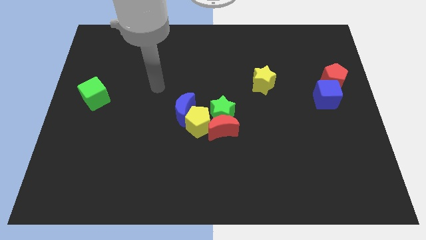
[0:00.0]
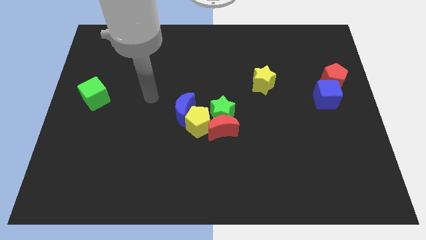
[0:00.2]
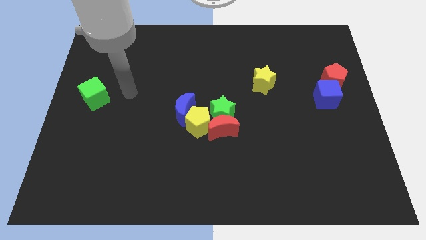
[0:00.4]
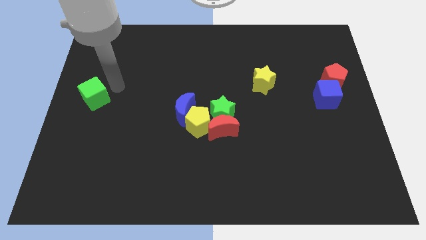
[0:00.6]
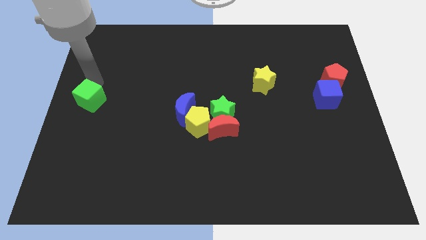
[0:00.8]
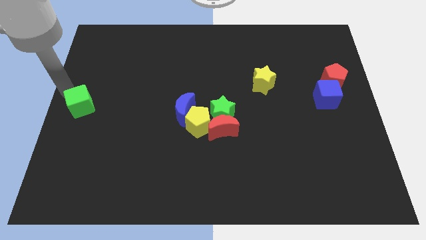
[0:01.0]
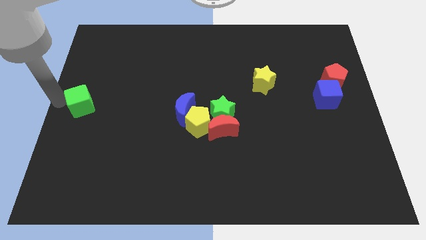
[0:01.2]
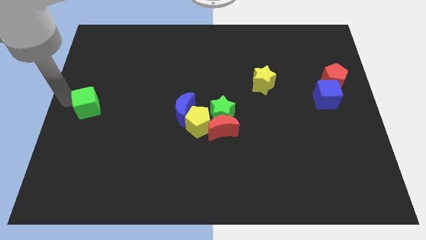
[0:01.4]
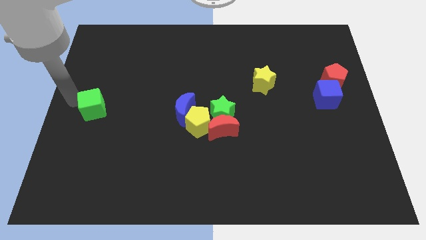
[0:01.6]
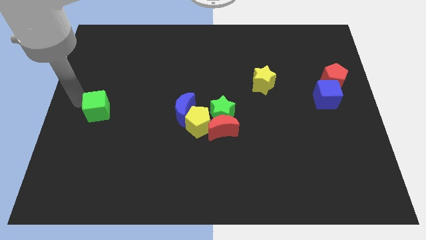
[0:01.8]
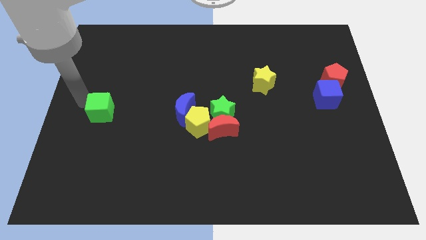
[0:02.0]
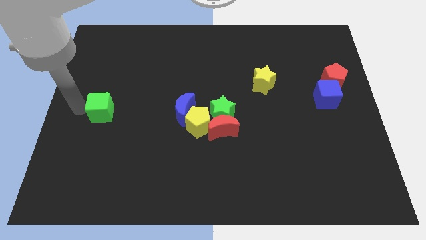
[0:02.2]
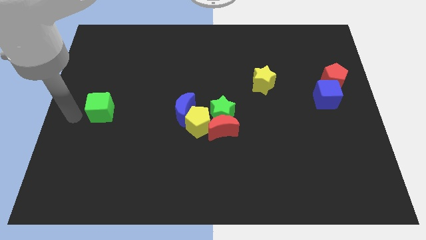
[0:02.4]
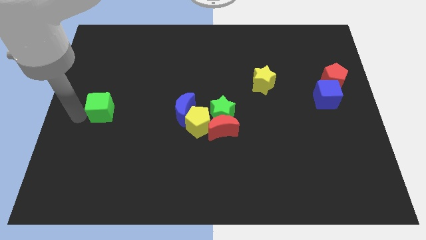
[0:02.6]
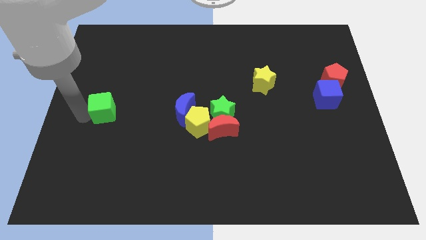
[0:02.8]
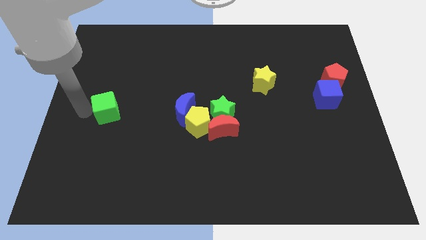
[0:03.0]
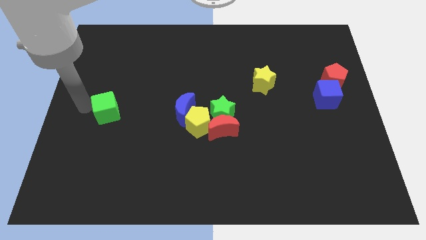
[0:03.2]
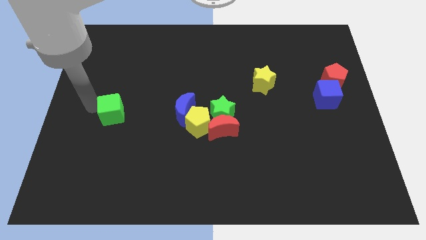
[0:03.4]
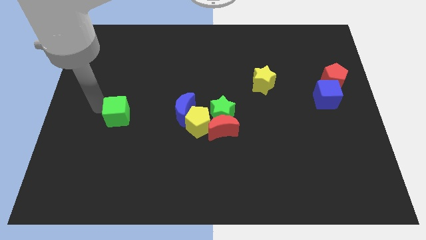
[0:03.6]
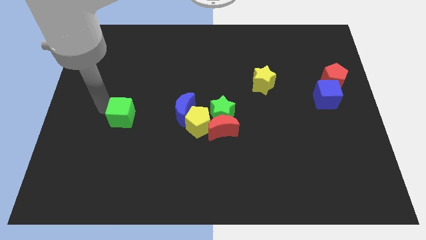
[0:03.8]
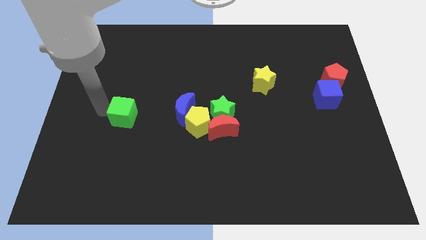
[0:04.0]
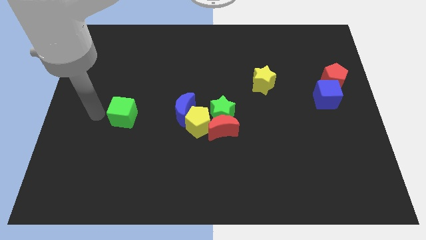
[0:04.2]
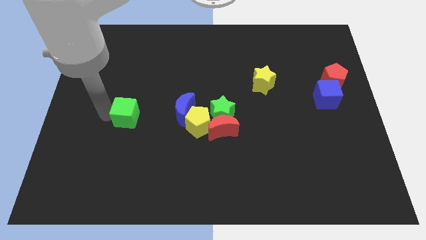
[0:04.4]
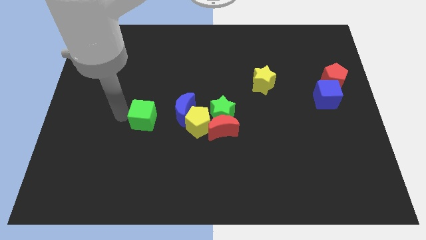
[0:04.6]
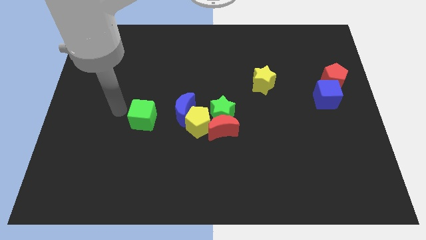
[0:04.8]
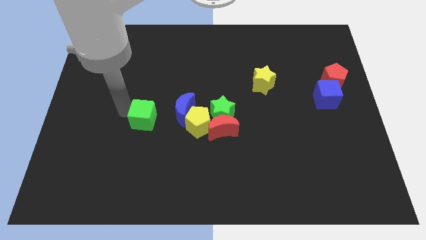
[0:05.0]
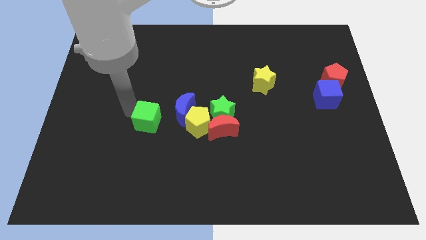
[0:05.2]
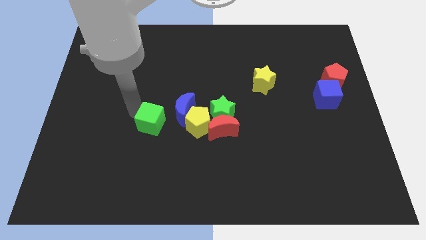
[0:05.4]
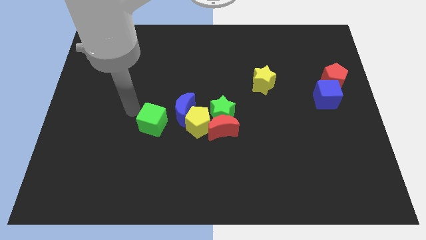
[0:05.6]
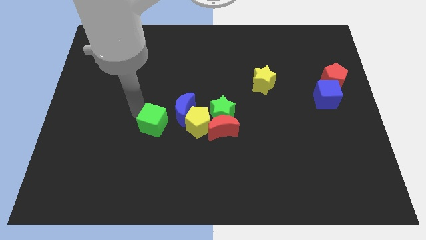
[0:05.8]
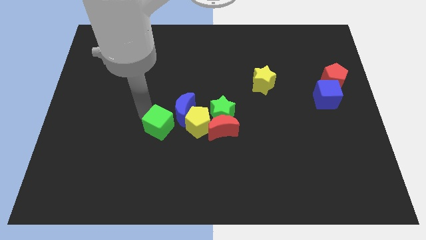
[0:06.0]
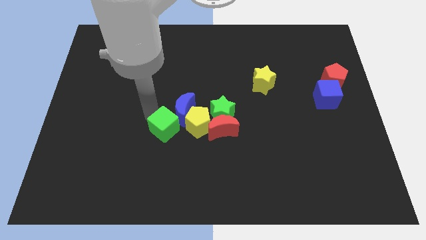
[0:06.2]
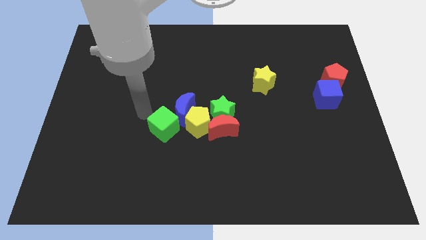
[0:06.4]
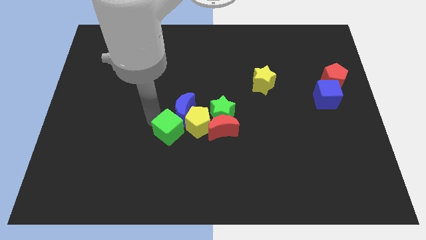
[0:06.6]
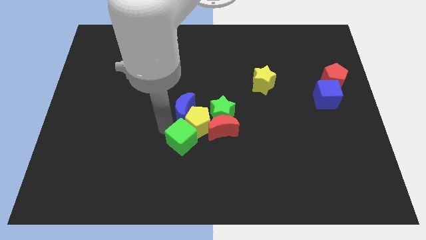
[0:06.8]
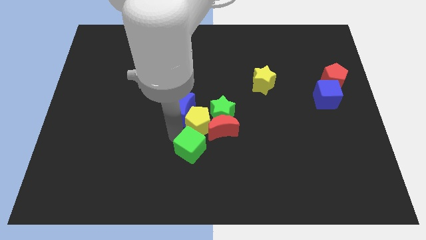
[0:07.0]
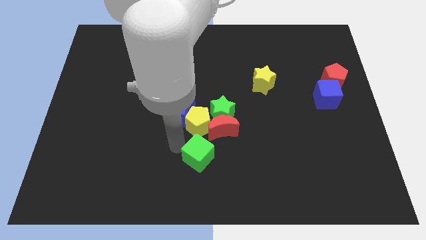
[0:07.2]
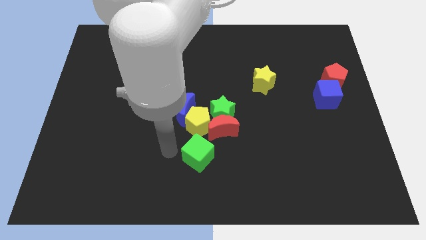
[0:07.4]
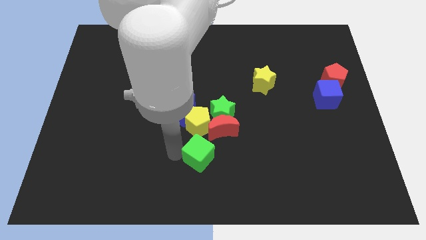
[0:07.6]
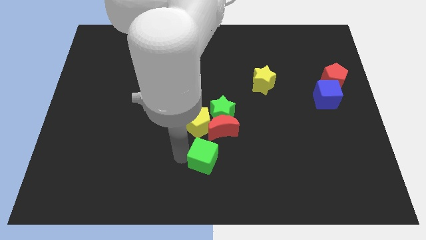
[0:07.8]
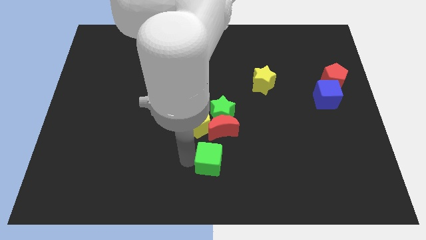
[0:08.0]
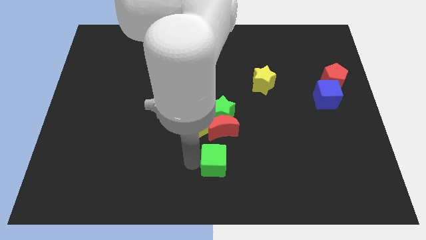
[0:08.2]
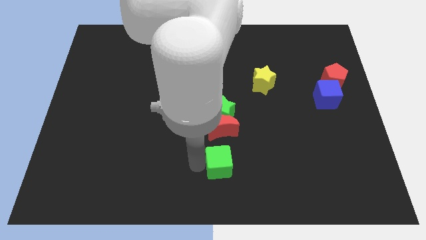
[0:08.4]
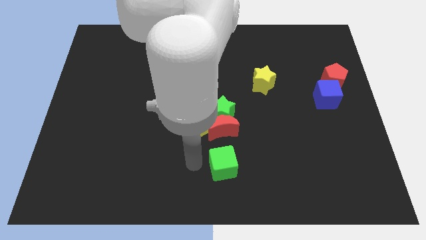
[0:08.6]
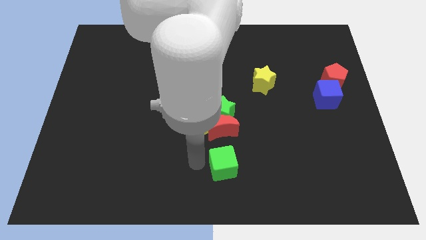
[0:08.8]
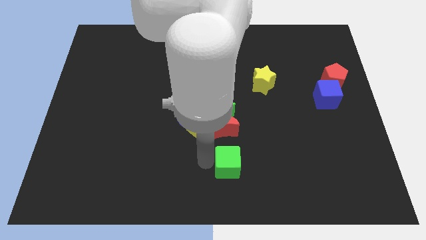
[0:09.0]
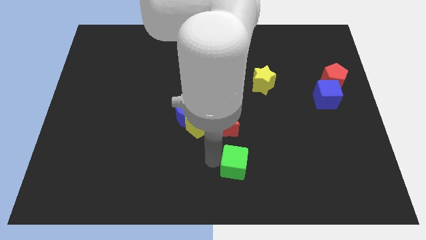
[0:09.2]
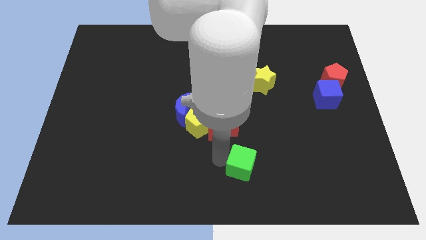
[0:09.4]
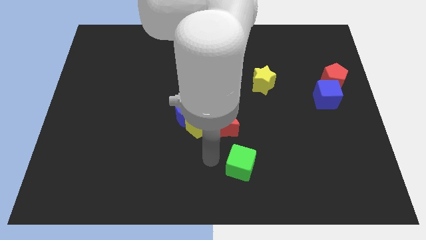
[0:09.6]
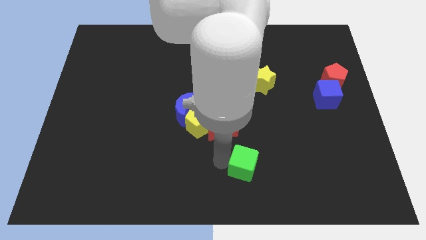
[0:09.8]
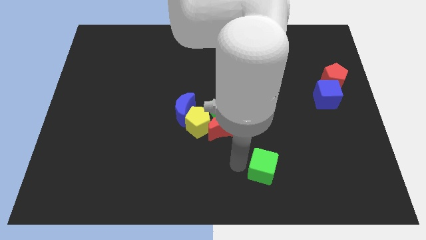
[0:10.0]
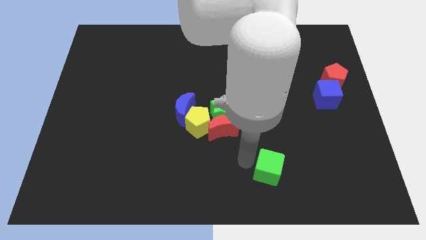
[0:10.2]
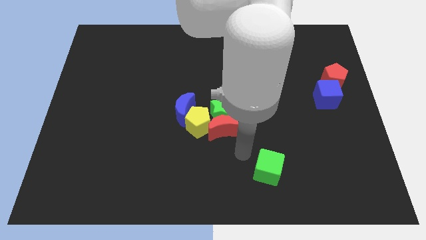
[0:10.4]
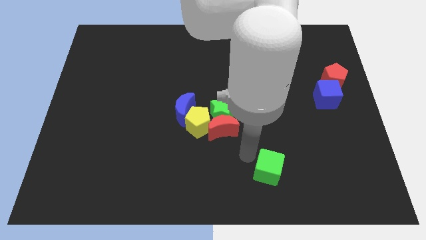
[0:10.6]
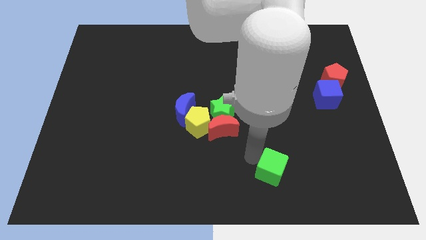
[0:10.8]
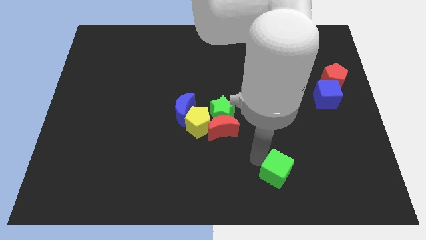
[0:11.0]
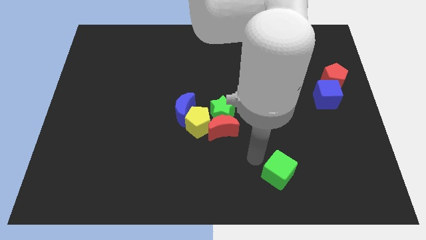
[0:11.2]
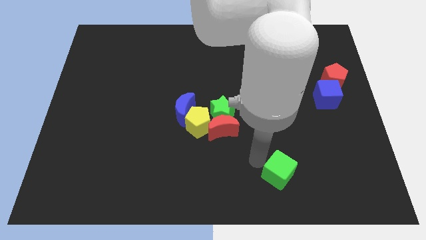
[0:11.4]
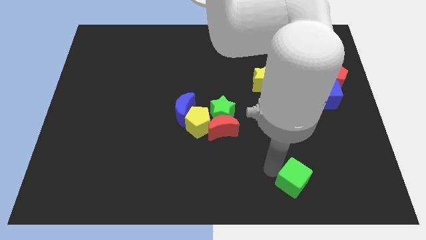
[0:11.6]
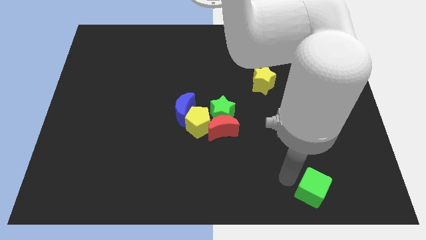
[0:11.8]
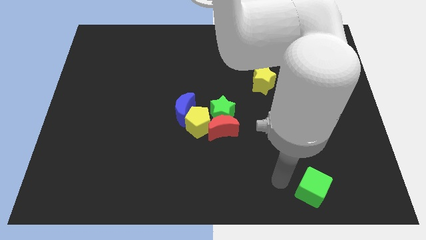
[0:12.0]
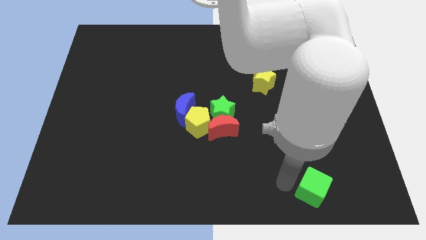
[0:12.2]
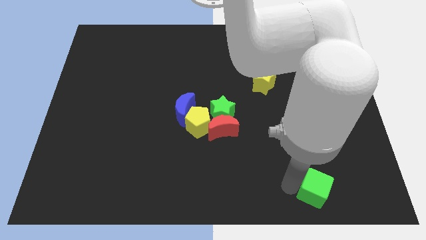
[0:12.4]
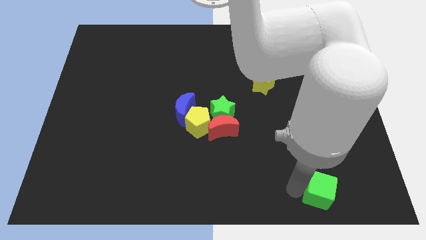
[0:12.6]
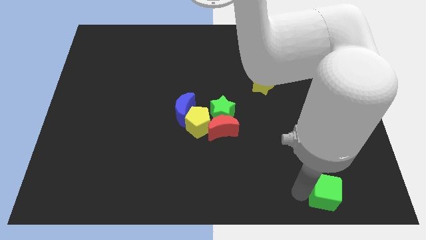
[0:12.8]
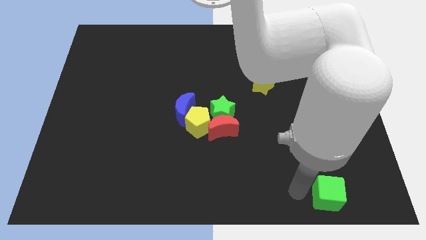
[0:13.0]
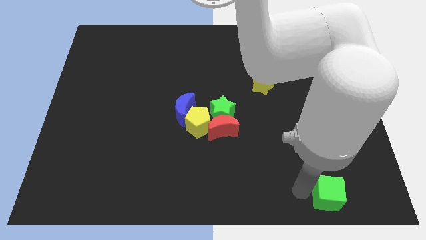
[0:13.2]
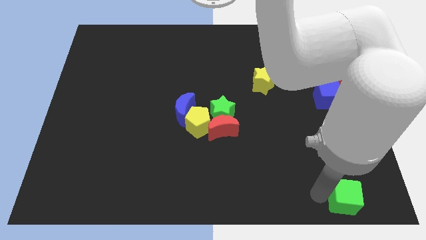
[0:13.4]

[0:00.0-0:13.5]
push the green cube to the bottom right
